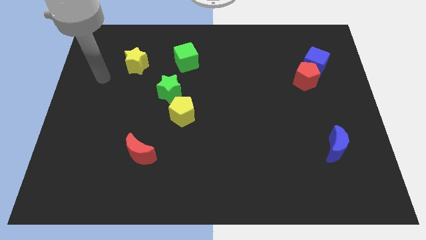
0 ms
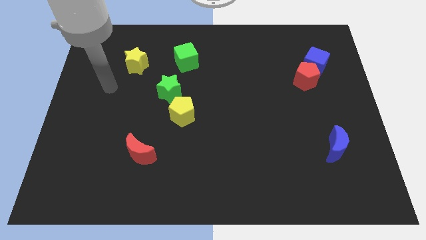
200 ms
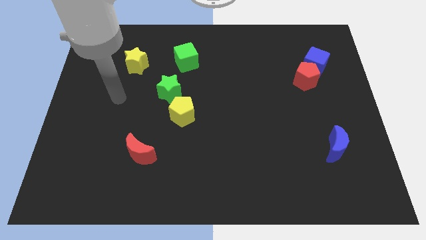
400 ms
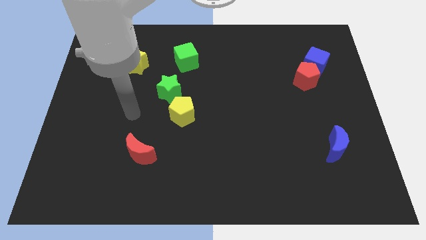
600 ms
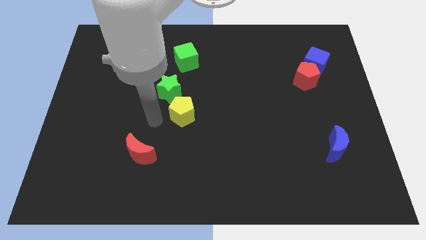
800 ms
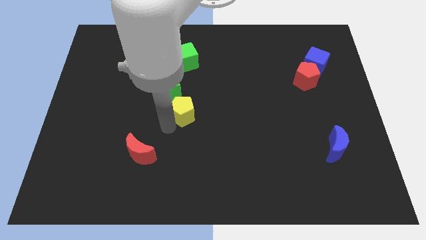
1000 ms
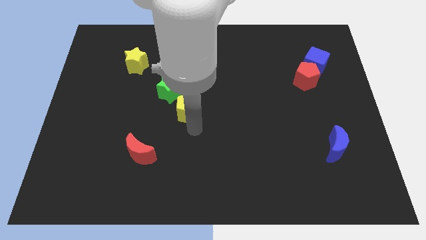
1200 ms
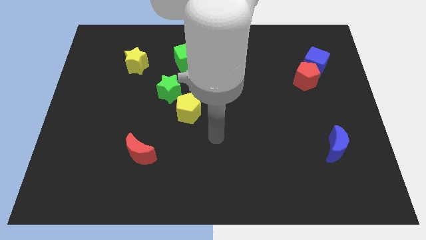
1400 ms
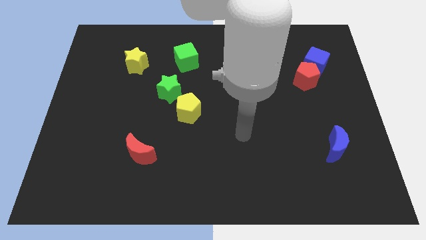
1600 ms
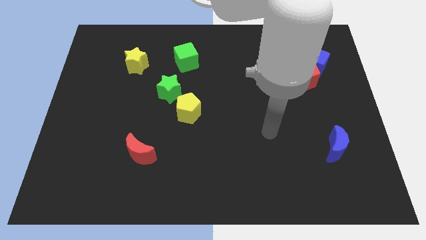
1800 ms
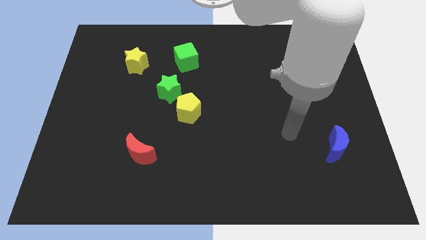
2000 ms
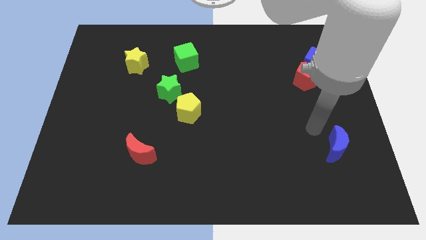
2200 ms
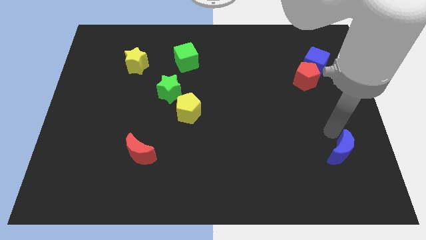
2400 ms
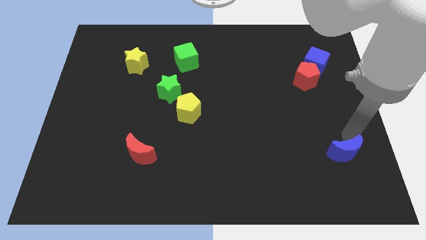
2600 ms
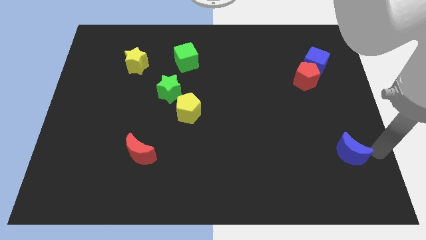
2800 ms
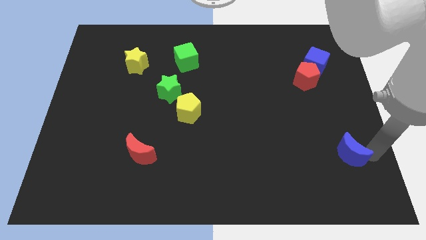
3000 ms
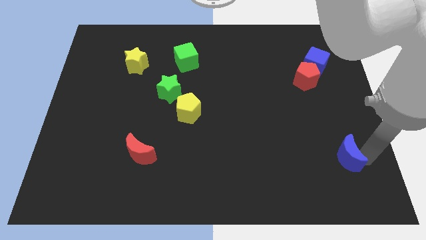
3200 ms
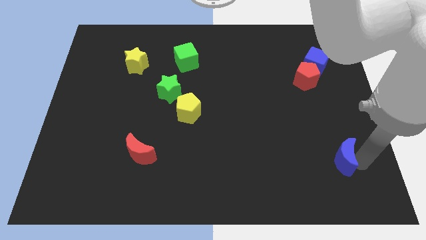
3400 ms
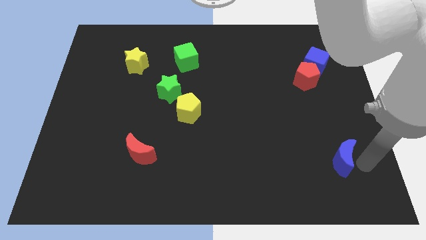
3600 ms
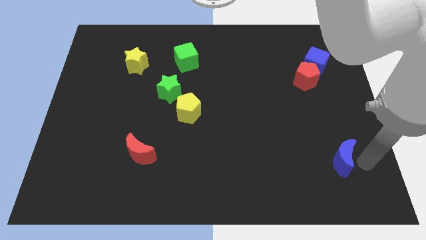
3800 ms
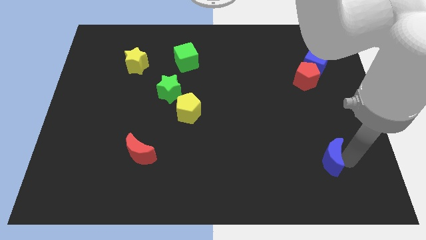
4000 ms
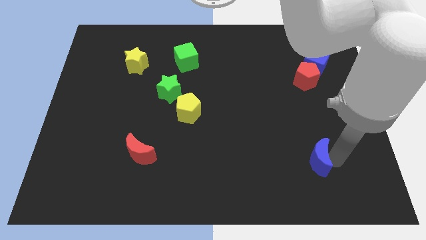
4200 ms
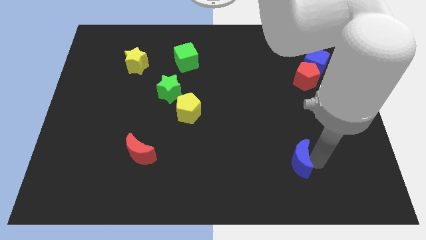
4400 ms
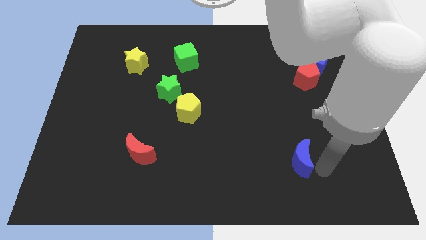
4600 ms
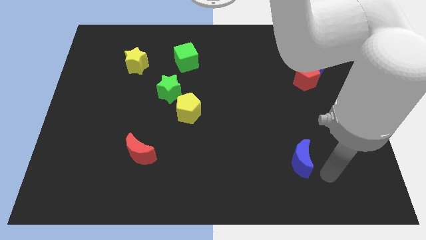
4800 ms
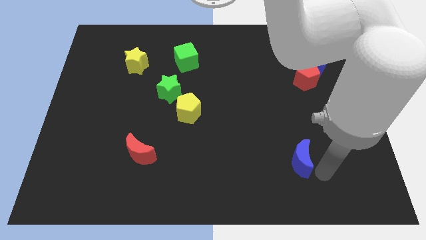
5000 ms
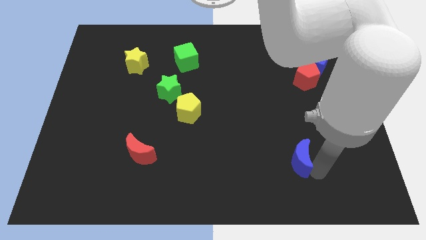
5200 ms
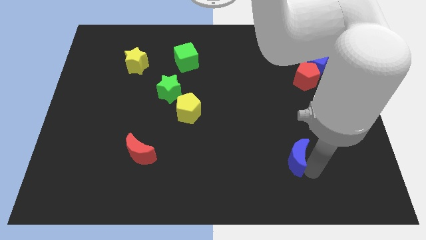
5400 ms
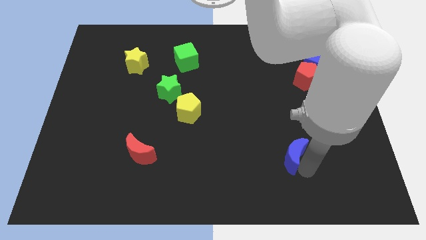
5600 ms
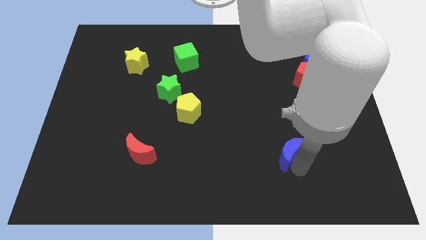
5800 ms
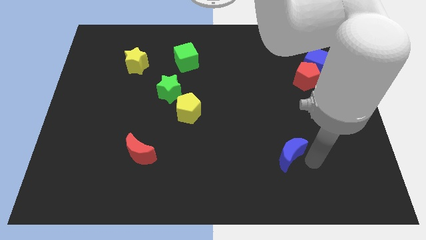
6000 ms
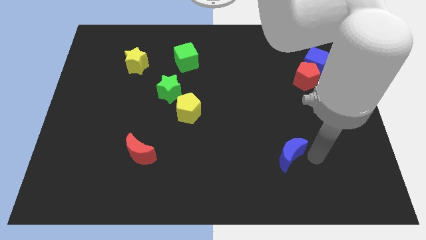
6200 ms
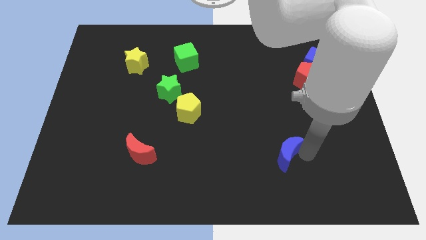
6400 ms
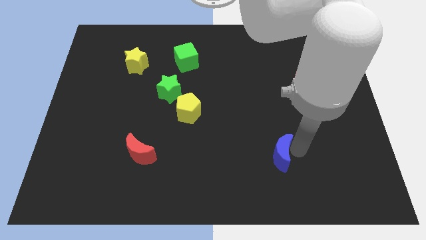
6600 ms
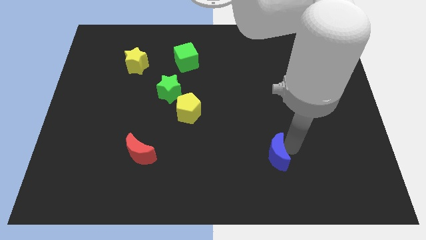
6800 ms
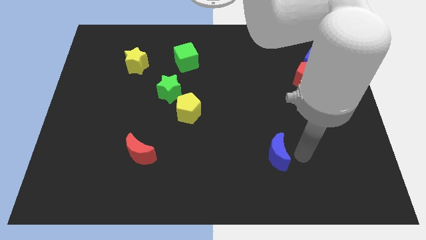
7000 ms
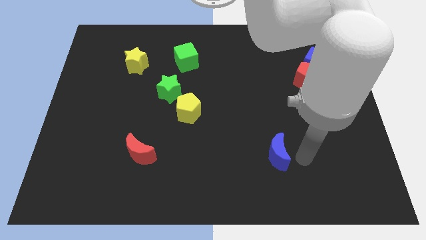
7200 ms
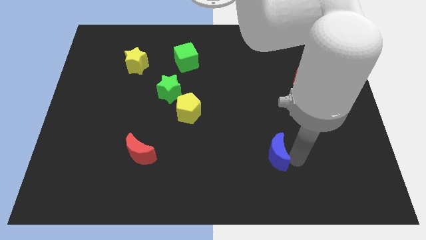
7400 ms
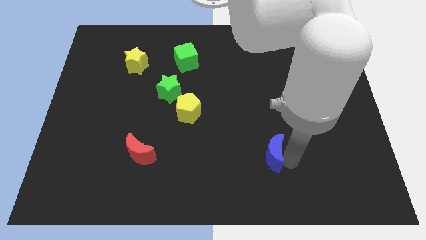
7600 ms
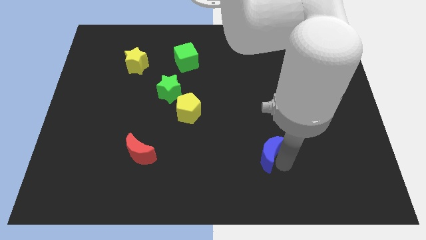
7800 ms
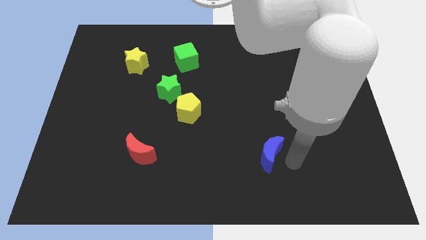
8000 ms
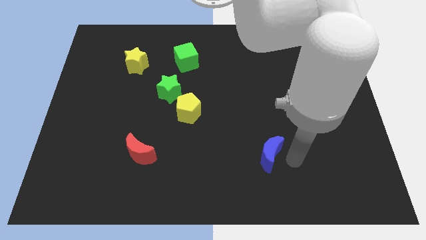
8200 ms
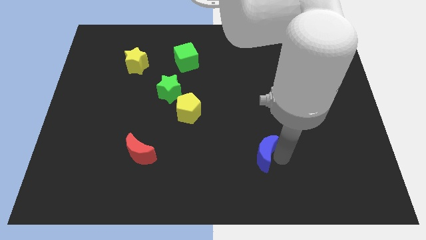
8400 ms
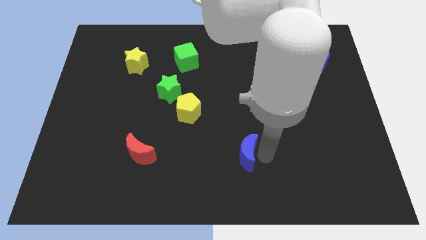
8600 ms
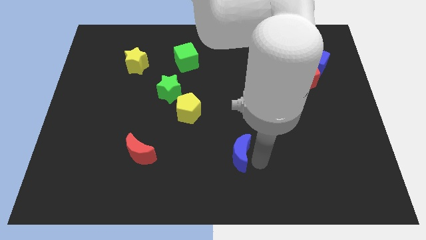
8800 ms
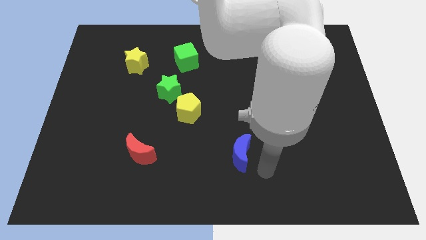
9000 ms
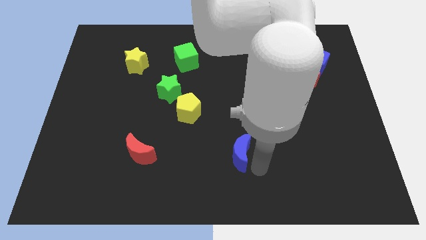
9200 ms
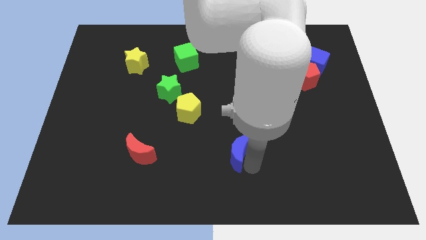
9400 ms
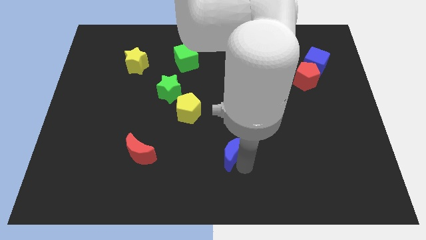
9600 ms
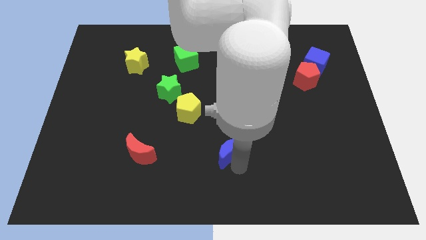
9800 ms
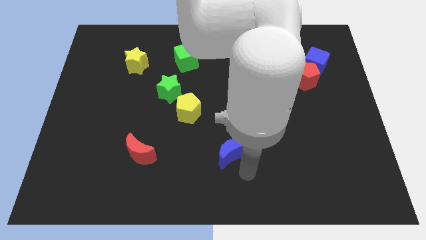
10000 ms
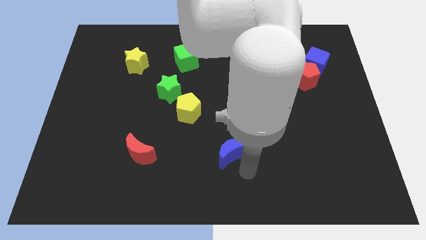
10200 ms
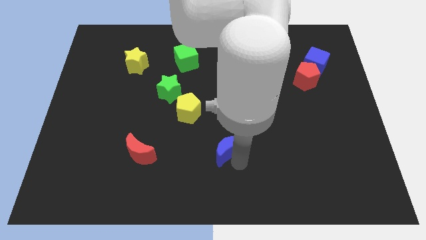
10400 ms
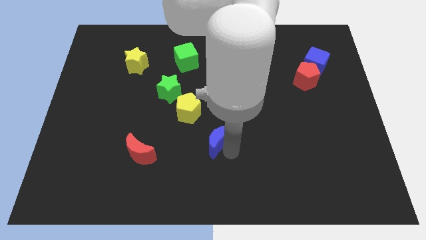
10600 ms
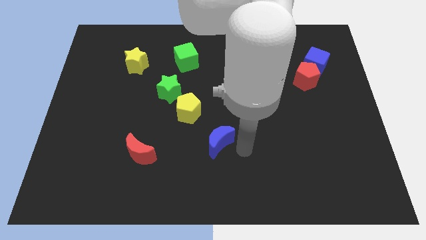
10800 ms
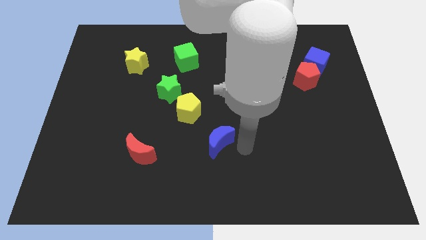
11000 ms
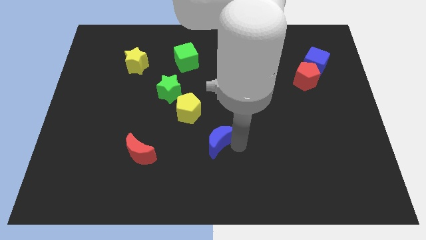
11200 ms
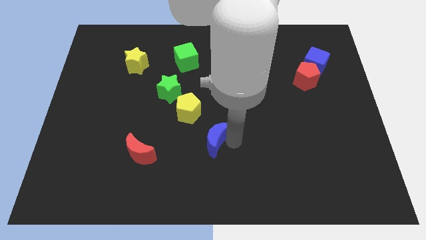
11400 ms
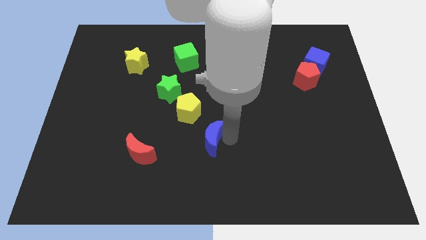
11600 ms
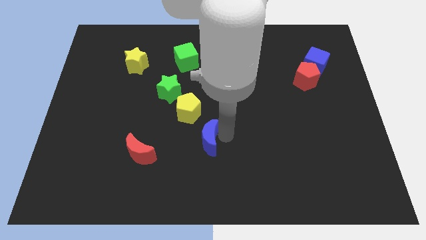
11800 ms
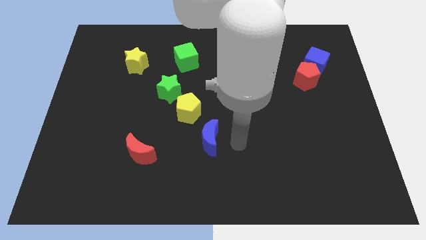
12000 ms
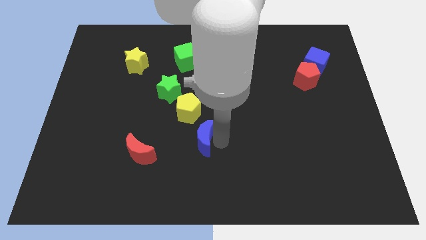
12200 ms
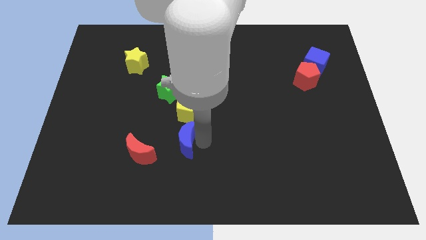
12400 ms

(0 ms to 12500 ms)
push the blue moon diagonally up and to the right of the red moon
